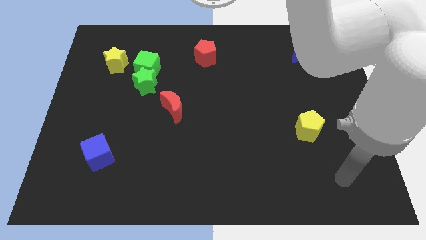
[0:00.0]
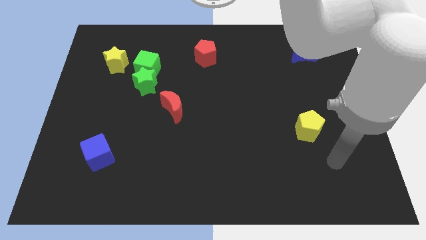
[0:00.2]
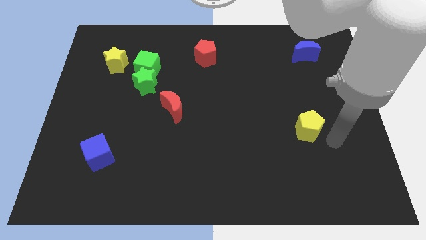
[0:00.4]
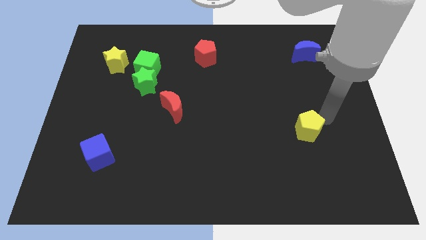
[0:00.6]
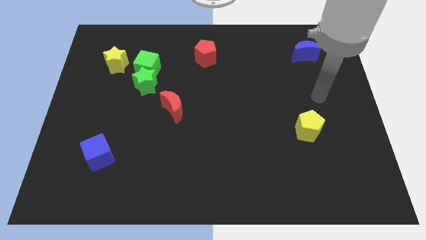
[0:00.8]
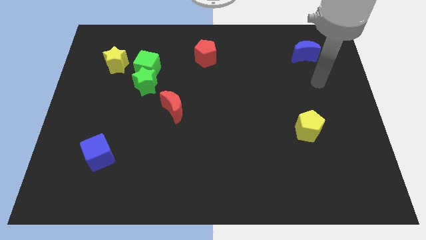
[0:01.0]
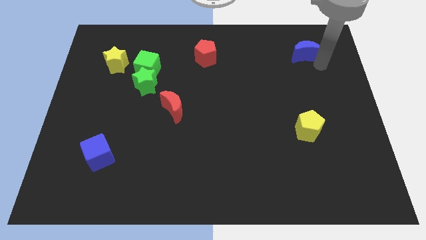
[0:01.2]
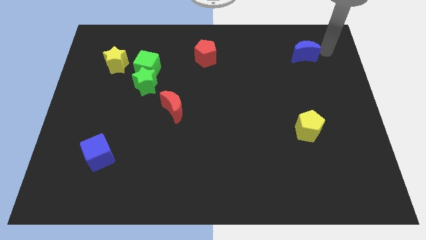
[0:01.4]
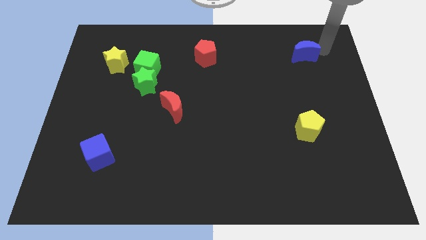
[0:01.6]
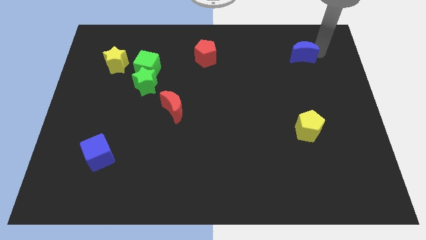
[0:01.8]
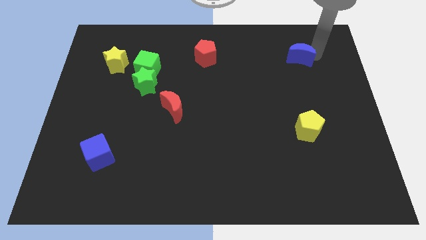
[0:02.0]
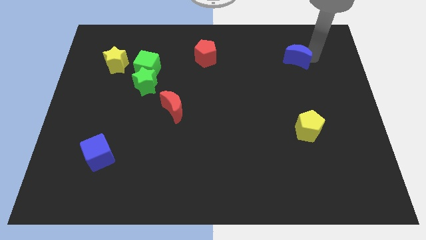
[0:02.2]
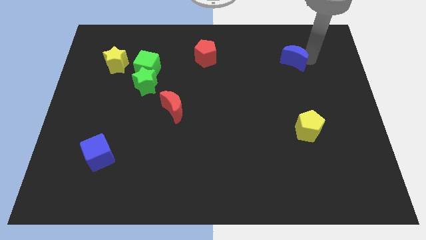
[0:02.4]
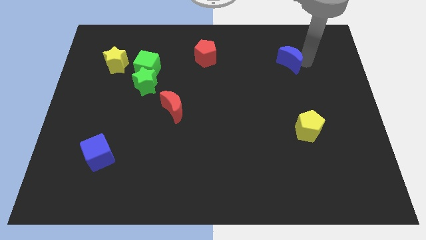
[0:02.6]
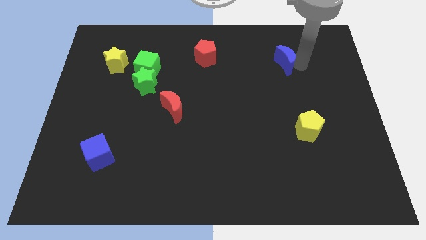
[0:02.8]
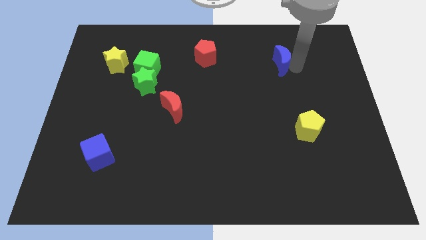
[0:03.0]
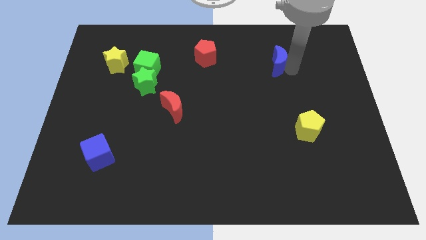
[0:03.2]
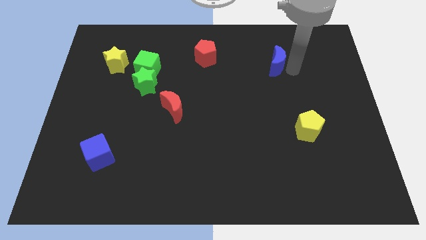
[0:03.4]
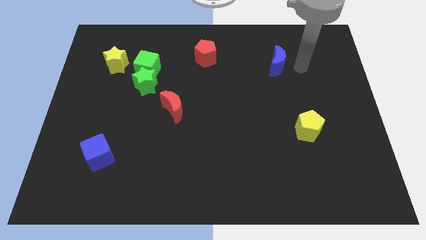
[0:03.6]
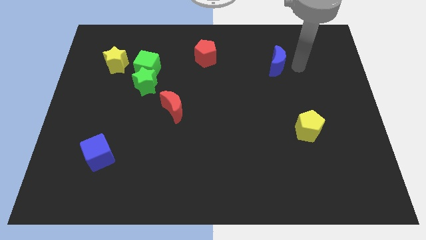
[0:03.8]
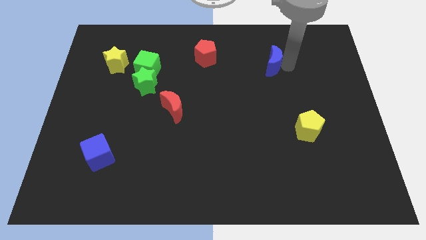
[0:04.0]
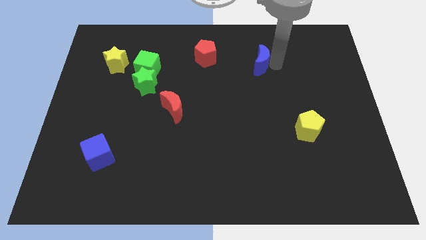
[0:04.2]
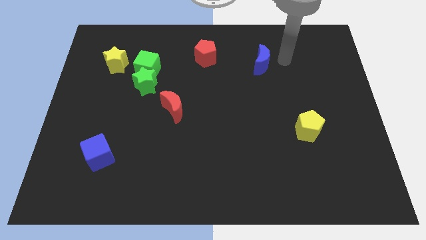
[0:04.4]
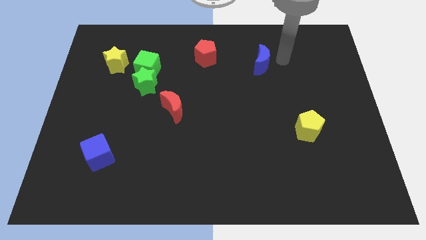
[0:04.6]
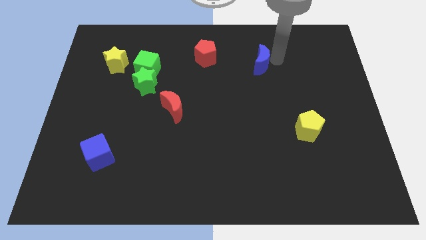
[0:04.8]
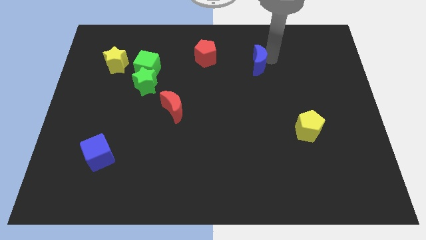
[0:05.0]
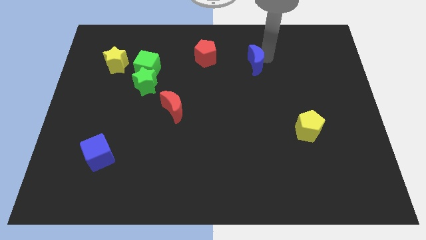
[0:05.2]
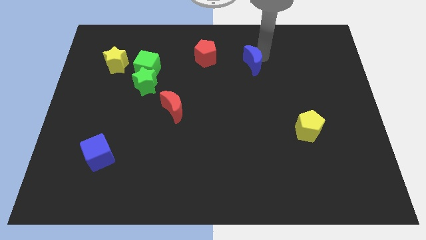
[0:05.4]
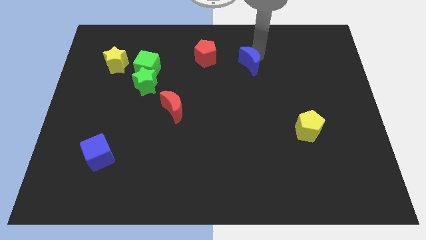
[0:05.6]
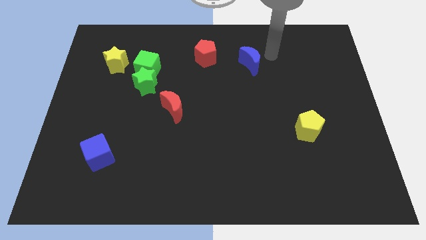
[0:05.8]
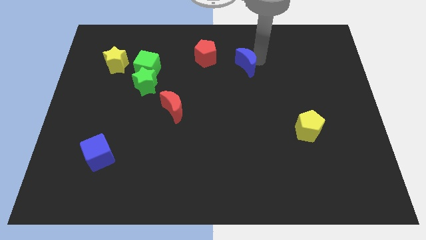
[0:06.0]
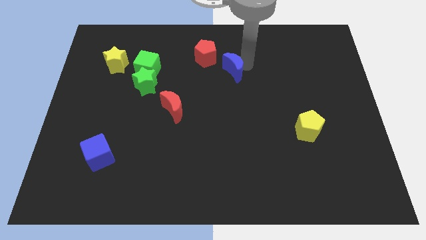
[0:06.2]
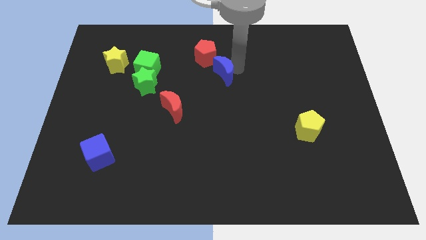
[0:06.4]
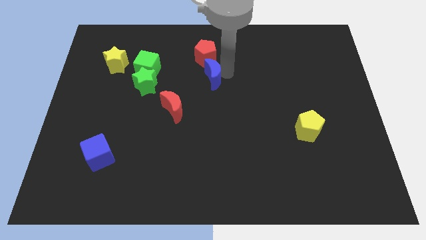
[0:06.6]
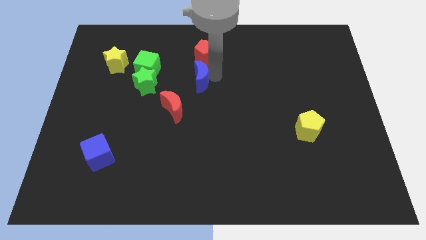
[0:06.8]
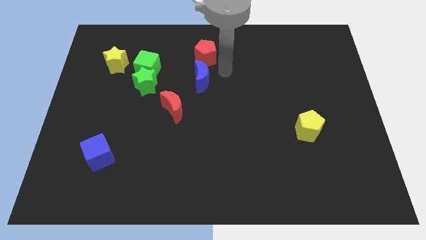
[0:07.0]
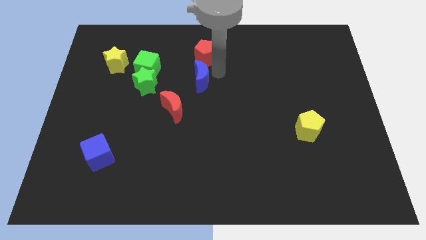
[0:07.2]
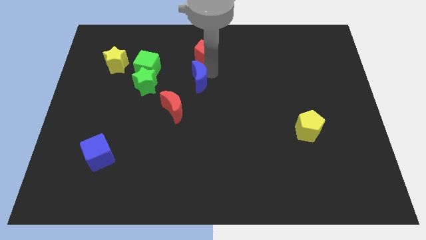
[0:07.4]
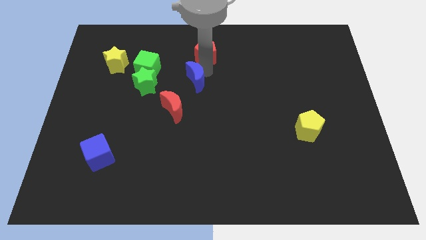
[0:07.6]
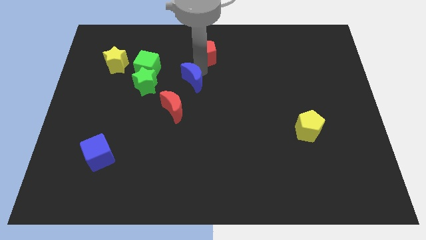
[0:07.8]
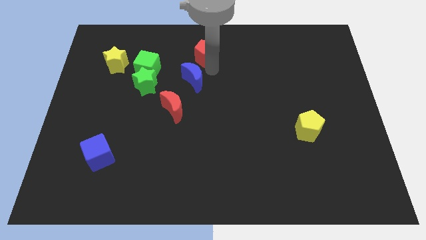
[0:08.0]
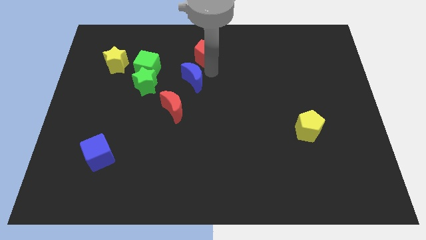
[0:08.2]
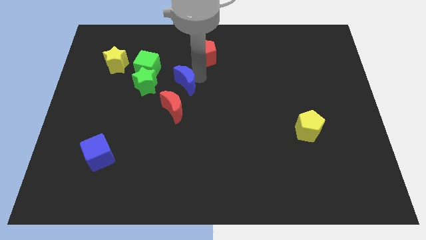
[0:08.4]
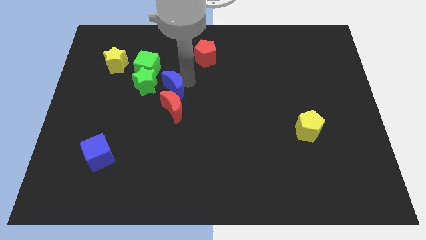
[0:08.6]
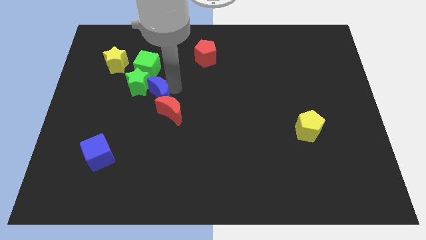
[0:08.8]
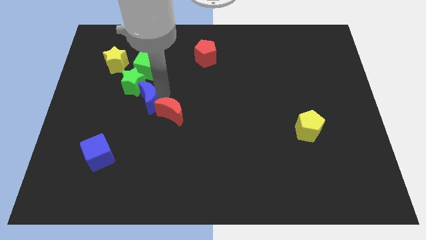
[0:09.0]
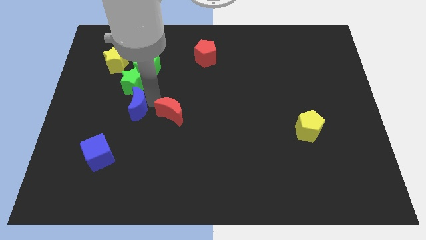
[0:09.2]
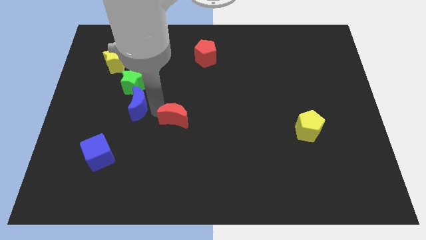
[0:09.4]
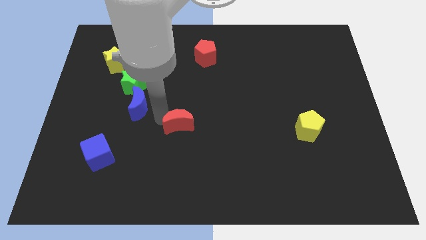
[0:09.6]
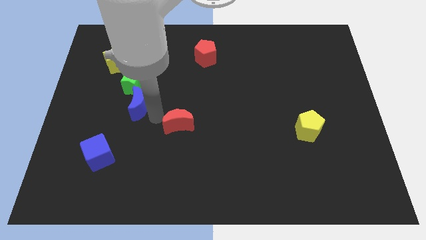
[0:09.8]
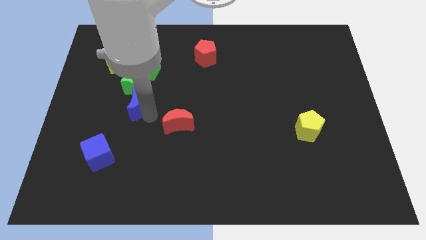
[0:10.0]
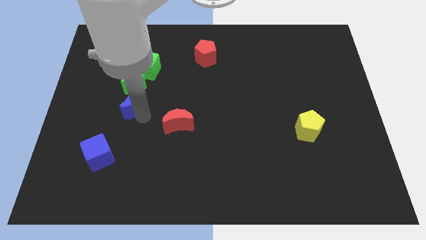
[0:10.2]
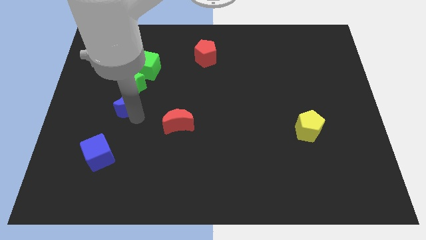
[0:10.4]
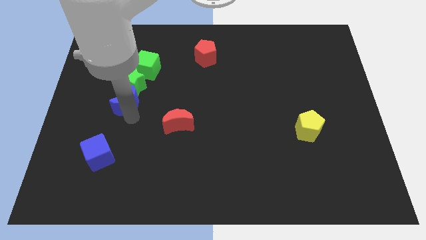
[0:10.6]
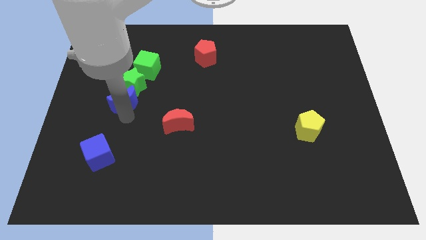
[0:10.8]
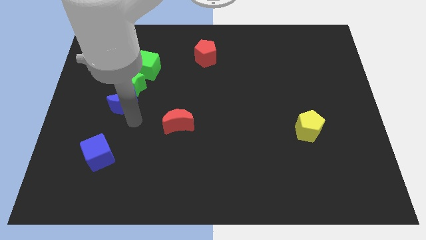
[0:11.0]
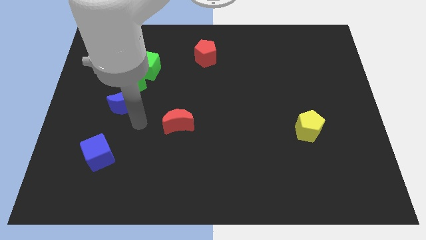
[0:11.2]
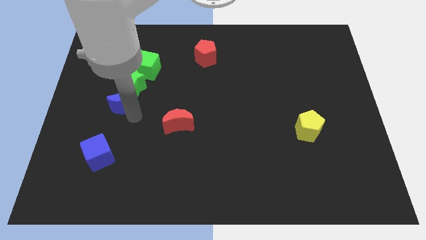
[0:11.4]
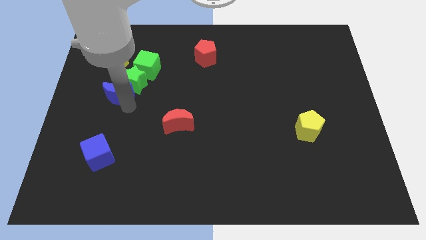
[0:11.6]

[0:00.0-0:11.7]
slide the blue moon left of the green star

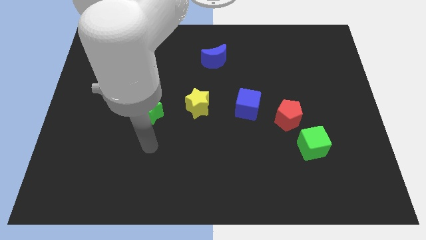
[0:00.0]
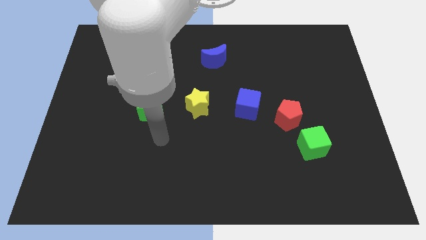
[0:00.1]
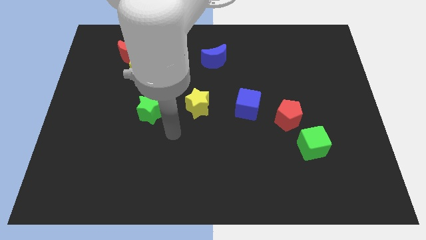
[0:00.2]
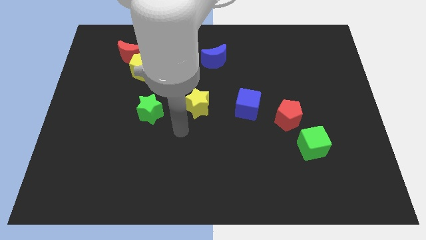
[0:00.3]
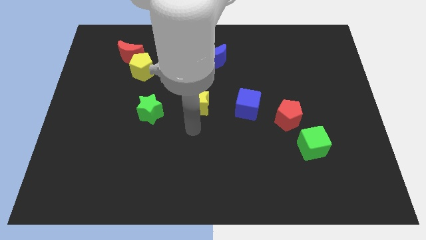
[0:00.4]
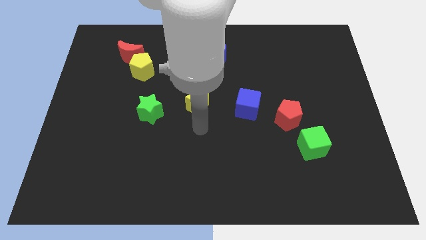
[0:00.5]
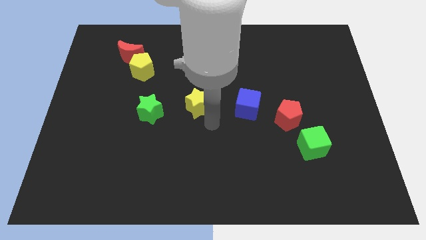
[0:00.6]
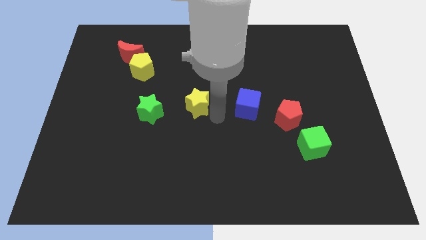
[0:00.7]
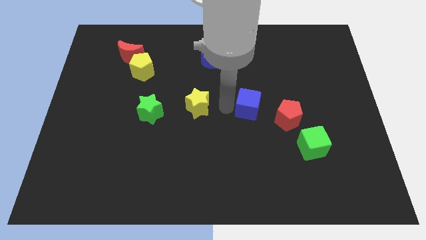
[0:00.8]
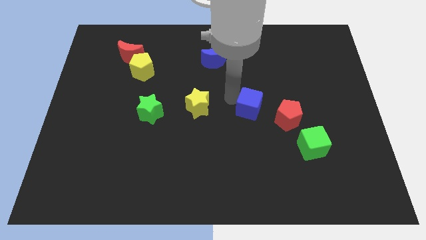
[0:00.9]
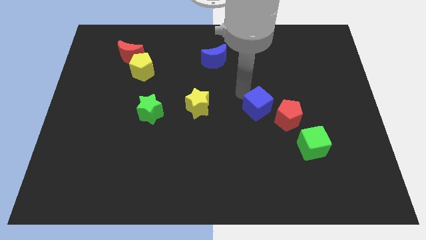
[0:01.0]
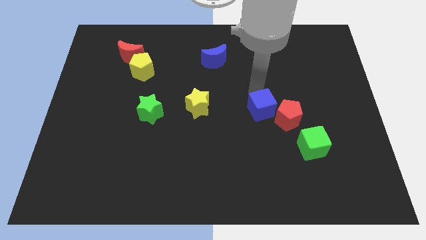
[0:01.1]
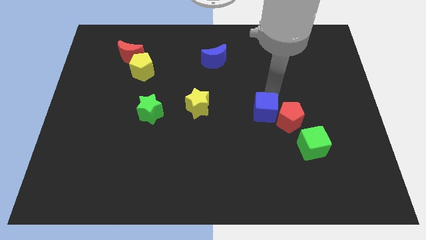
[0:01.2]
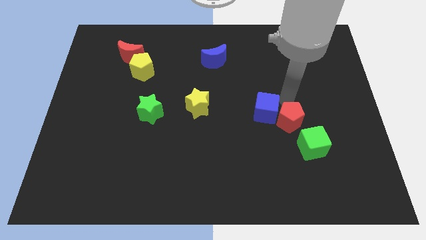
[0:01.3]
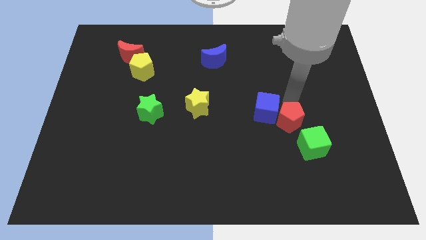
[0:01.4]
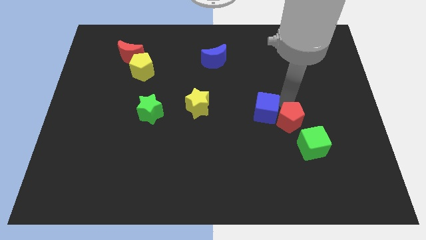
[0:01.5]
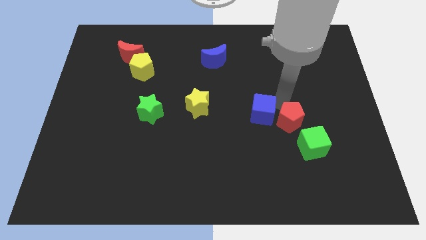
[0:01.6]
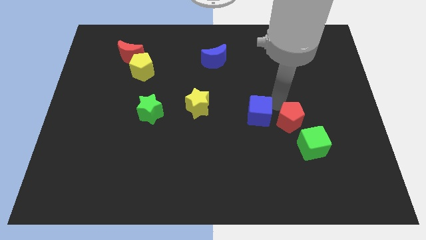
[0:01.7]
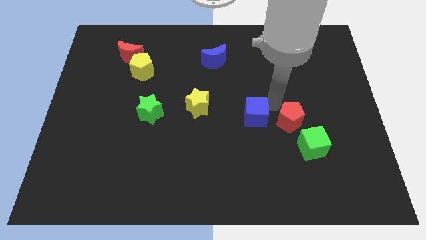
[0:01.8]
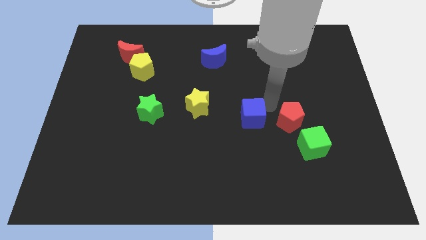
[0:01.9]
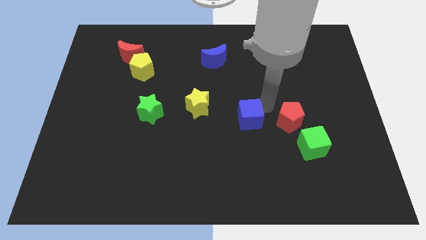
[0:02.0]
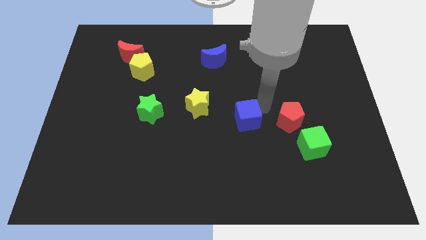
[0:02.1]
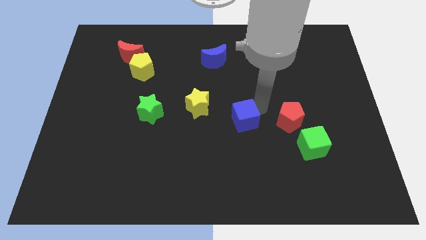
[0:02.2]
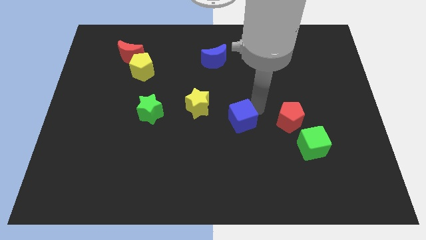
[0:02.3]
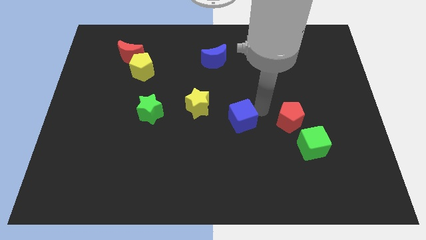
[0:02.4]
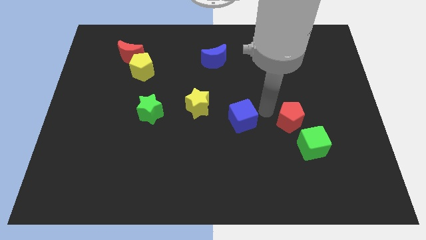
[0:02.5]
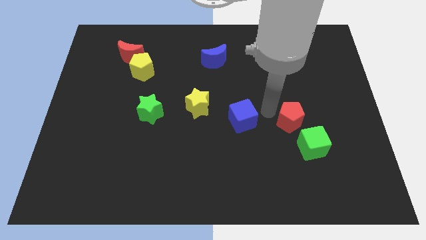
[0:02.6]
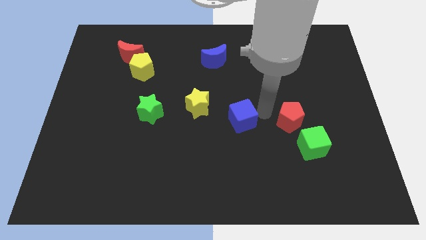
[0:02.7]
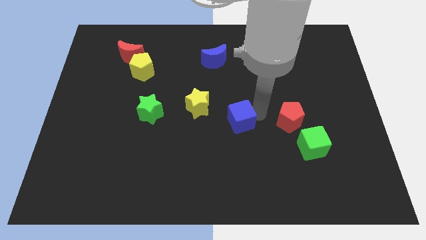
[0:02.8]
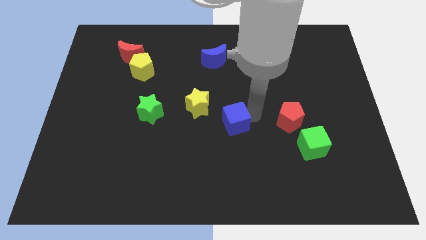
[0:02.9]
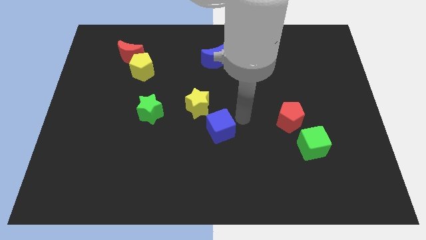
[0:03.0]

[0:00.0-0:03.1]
put the blue cube to the bottom of the yellow star
